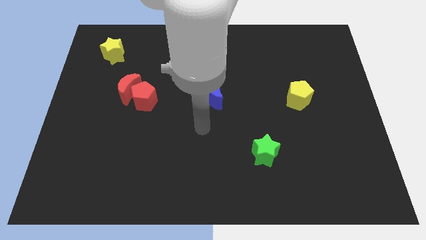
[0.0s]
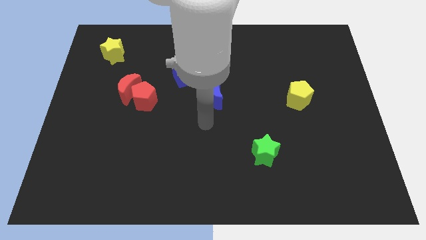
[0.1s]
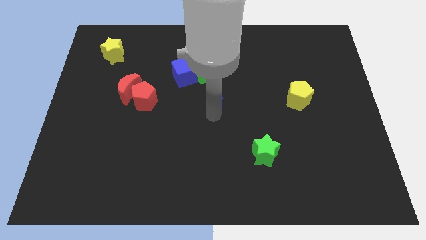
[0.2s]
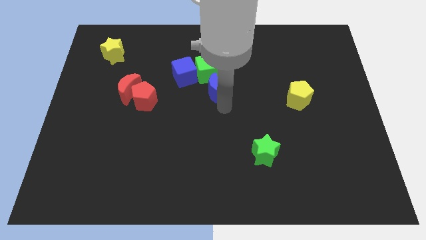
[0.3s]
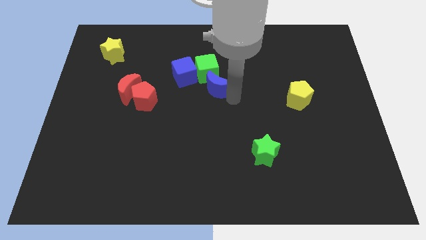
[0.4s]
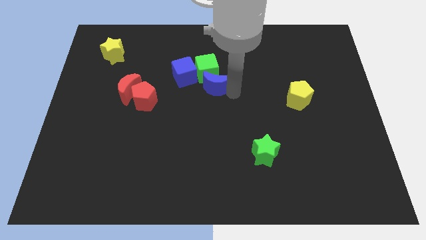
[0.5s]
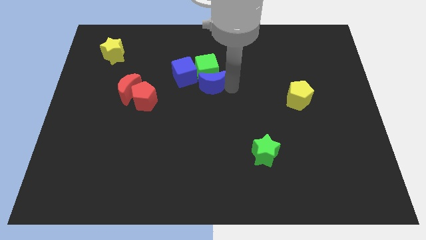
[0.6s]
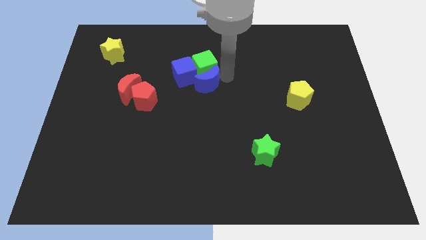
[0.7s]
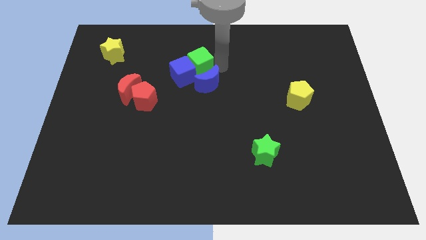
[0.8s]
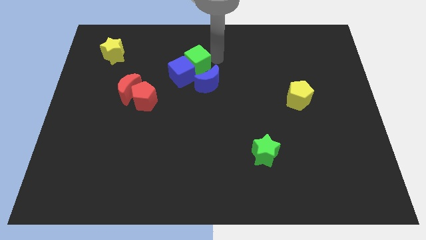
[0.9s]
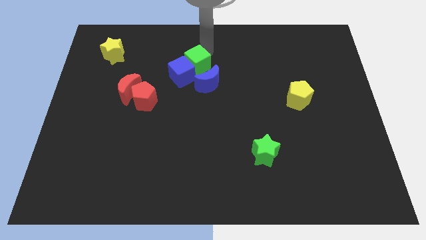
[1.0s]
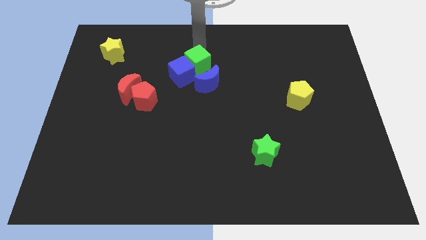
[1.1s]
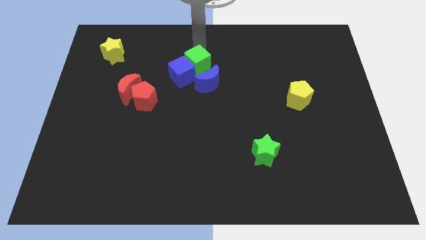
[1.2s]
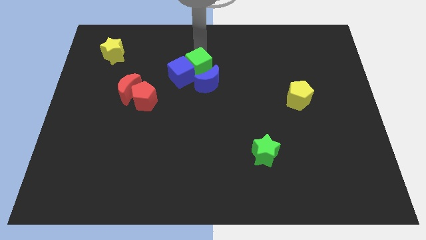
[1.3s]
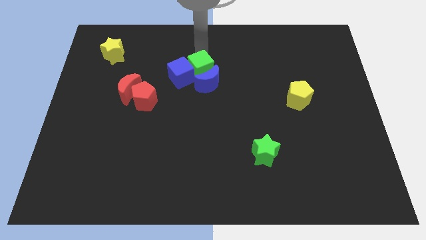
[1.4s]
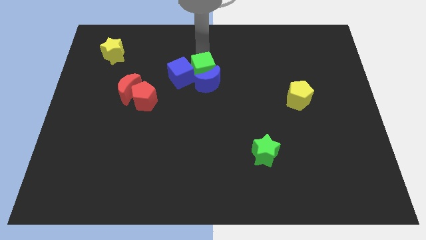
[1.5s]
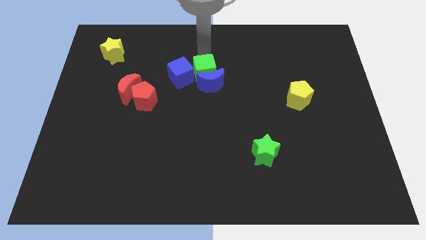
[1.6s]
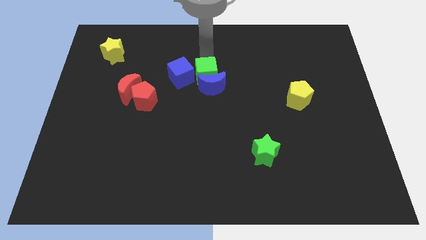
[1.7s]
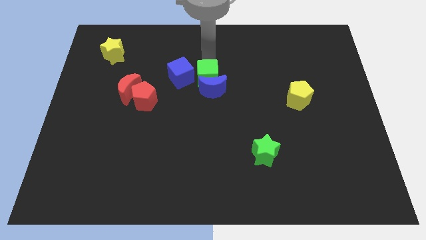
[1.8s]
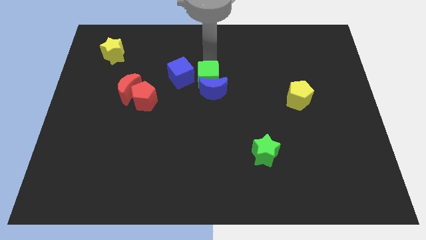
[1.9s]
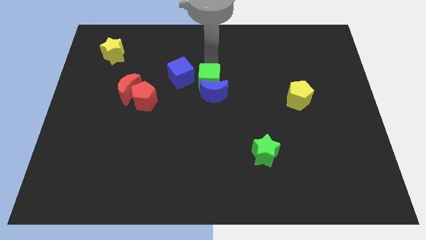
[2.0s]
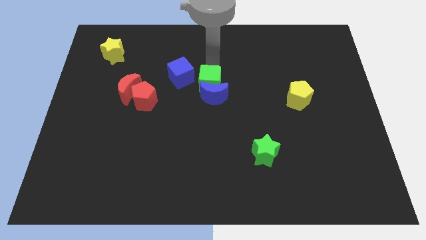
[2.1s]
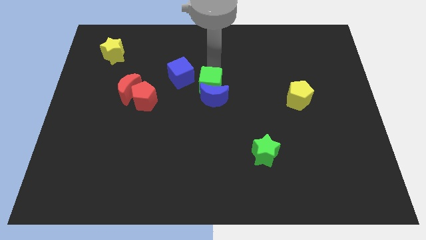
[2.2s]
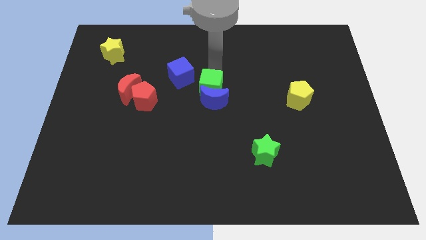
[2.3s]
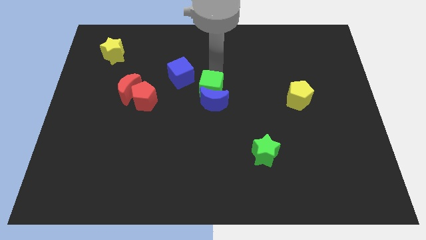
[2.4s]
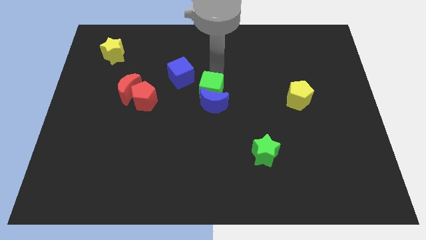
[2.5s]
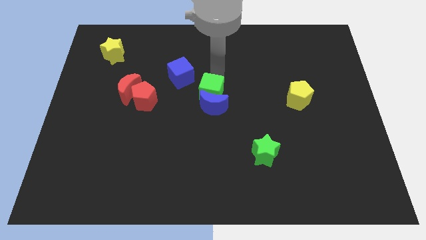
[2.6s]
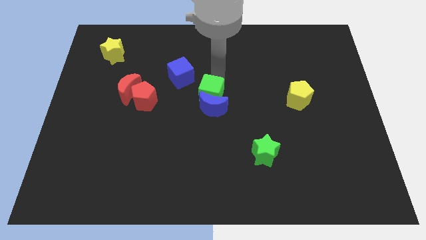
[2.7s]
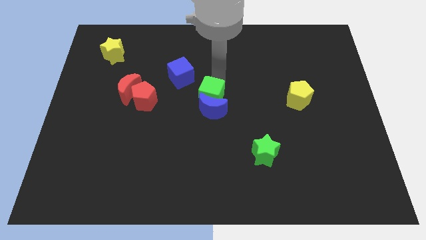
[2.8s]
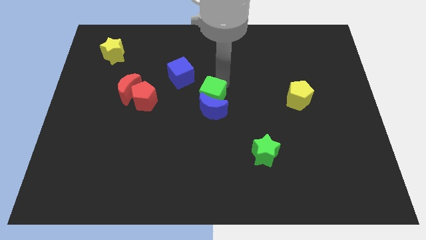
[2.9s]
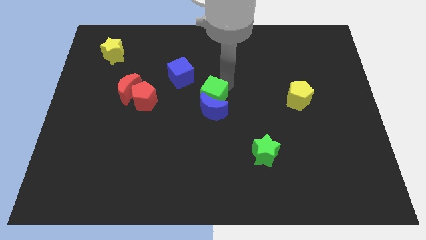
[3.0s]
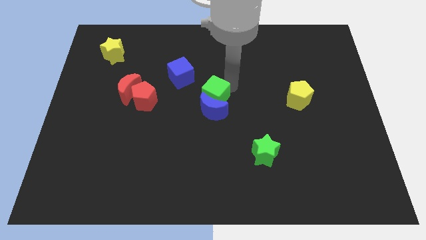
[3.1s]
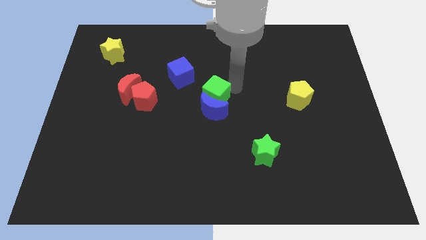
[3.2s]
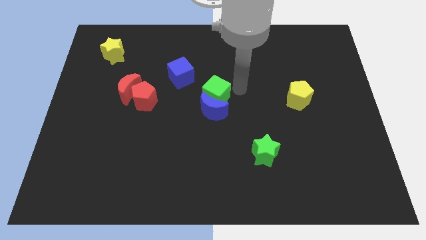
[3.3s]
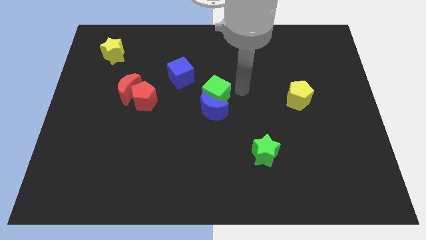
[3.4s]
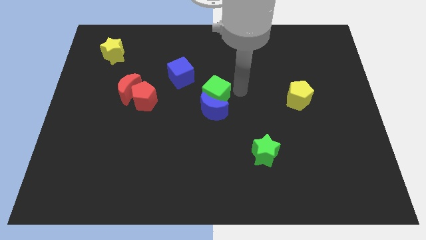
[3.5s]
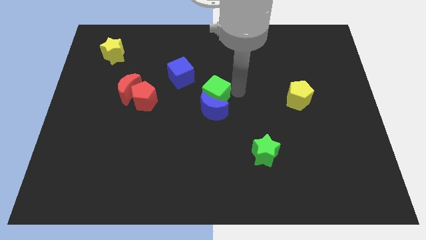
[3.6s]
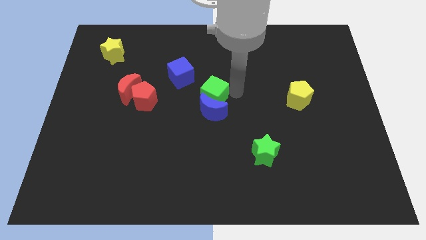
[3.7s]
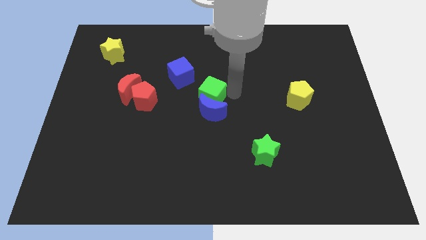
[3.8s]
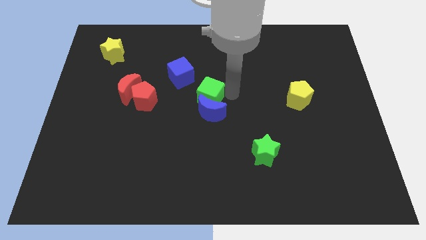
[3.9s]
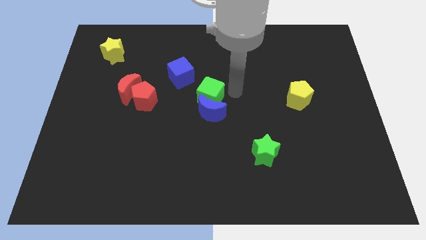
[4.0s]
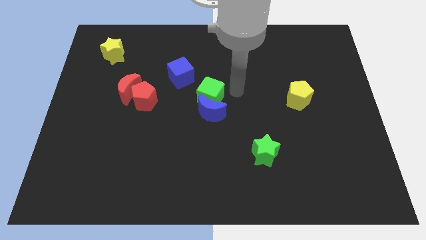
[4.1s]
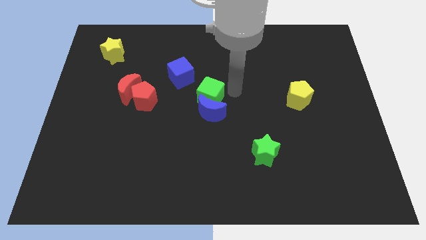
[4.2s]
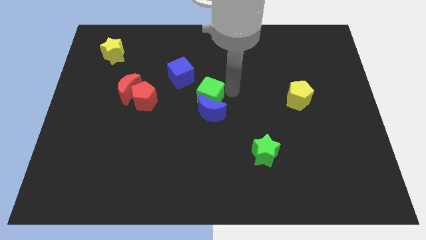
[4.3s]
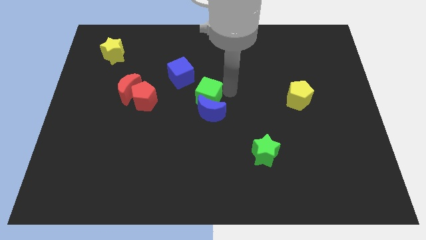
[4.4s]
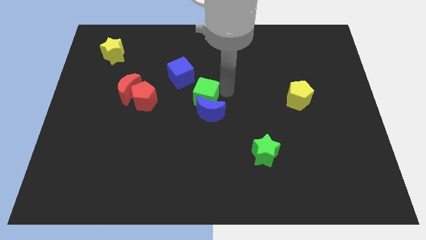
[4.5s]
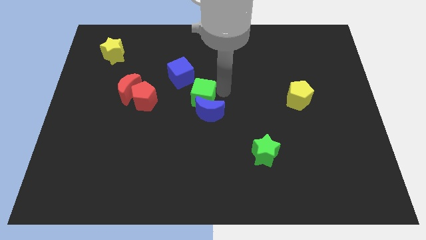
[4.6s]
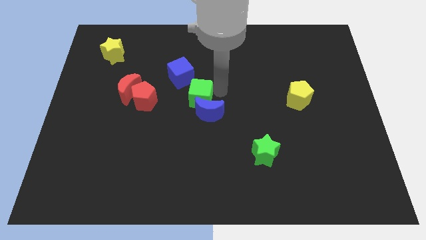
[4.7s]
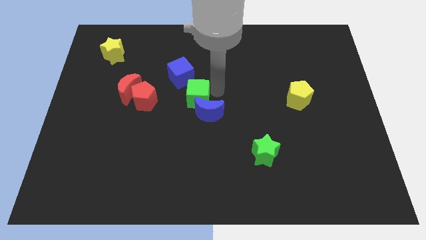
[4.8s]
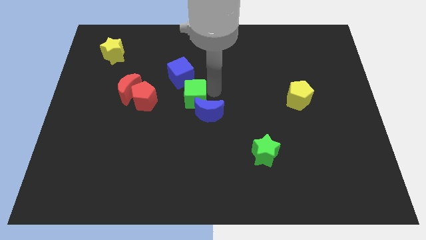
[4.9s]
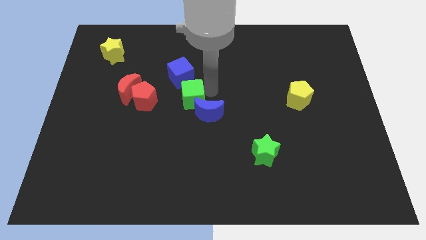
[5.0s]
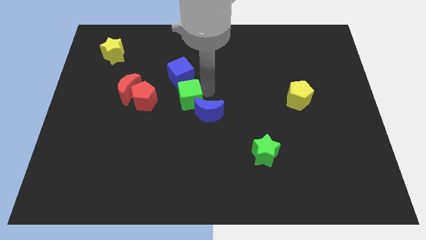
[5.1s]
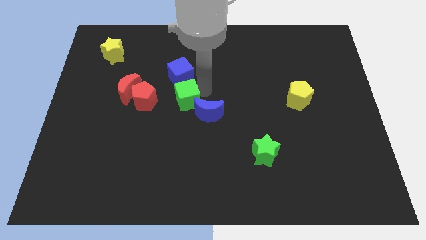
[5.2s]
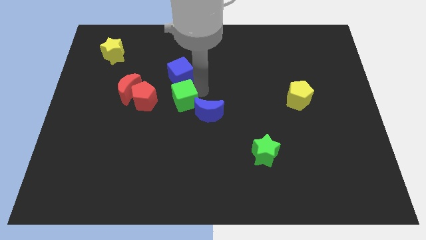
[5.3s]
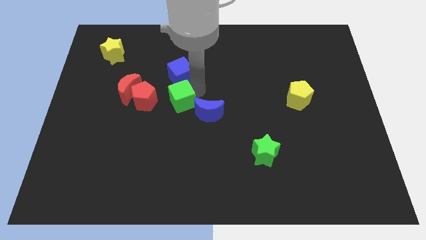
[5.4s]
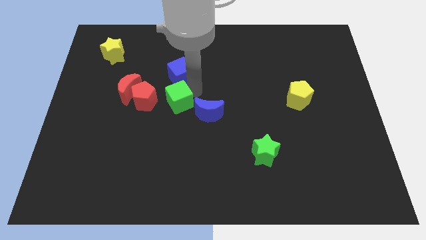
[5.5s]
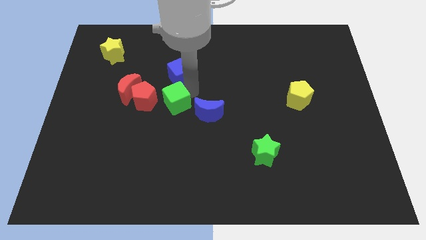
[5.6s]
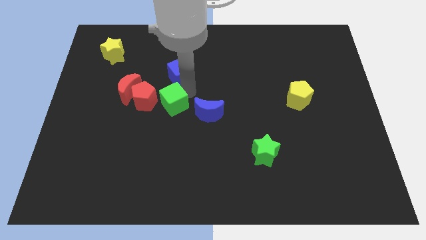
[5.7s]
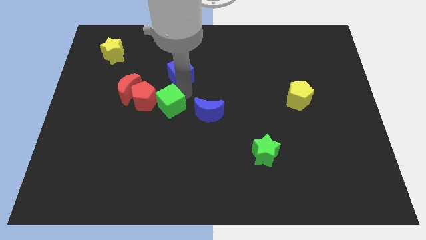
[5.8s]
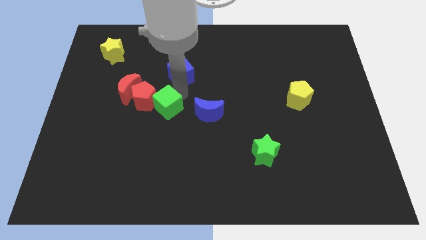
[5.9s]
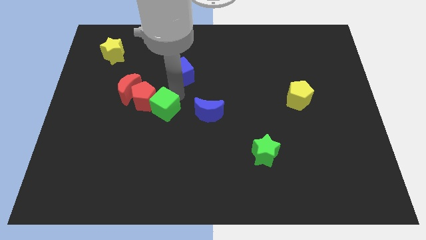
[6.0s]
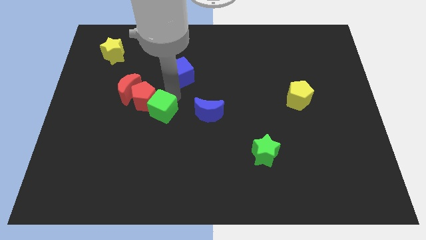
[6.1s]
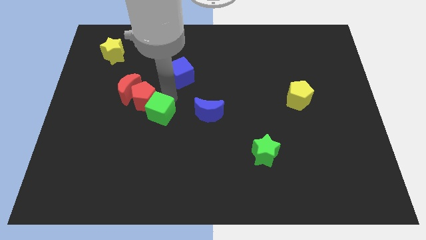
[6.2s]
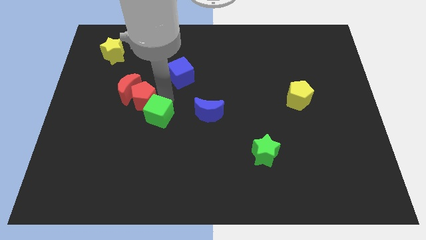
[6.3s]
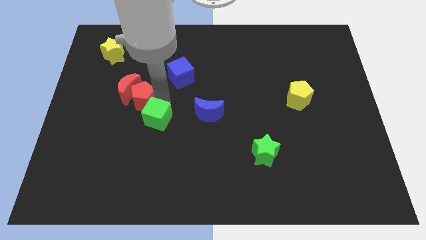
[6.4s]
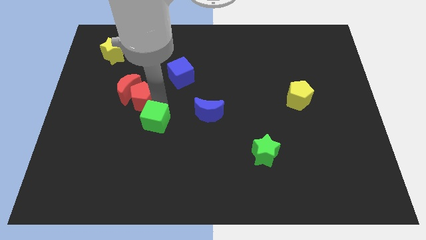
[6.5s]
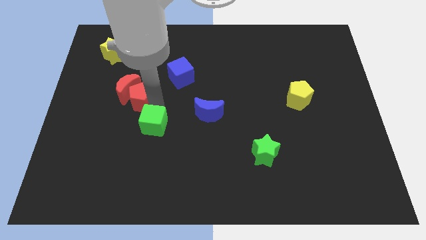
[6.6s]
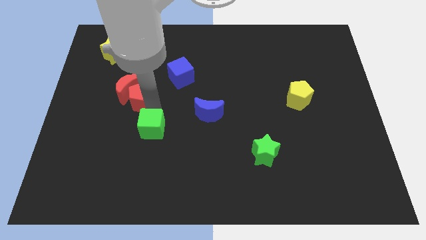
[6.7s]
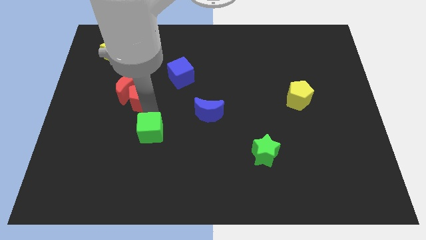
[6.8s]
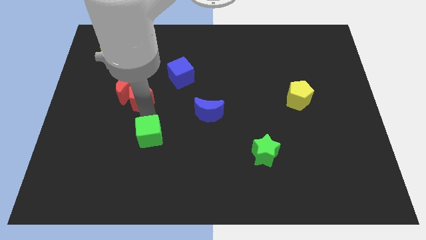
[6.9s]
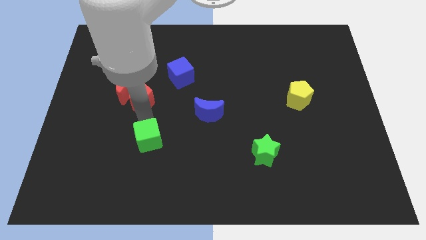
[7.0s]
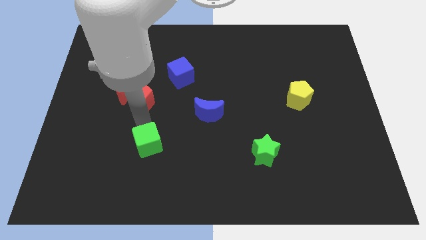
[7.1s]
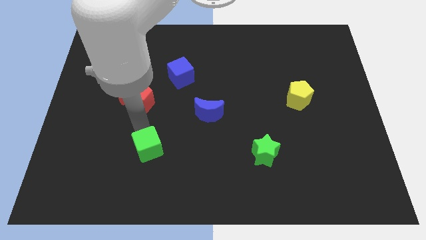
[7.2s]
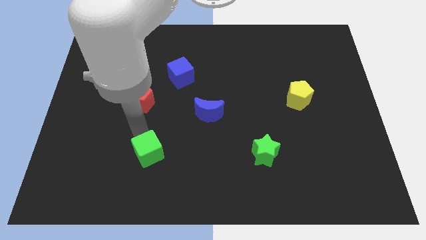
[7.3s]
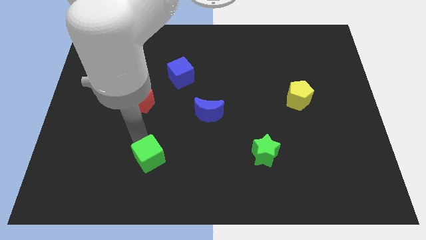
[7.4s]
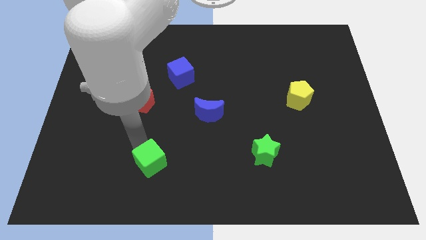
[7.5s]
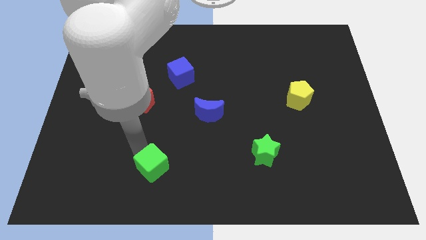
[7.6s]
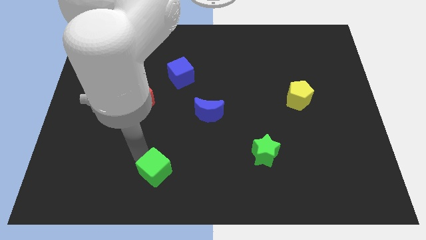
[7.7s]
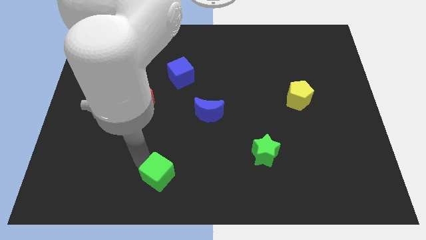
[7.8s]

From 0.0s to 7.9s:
move the green cube to the bottom
